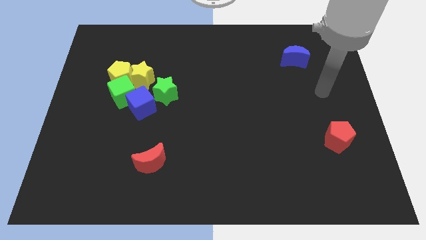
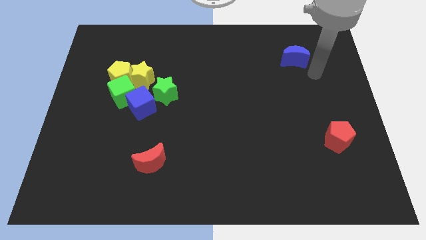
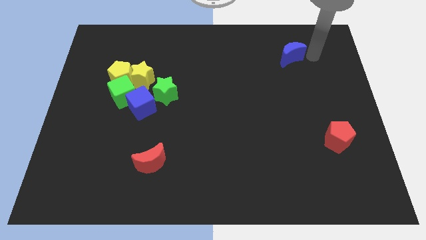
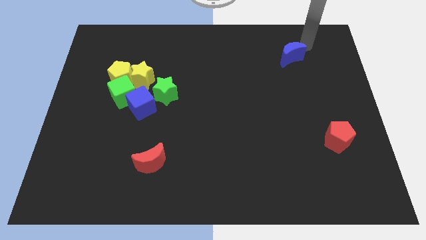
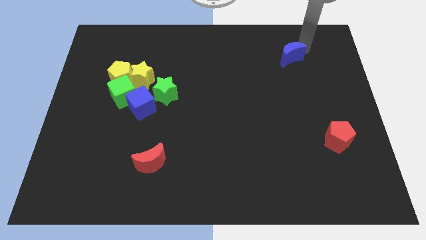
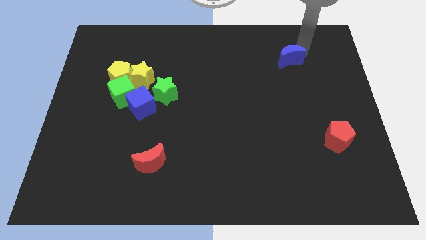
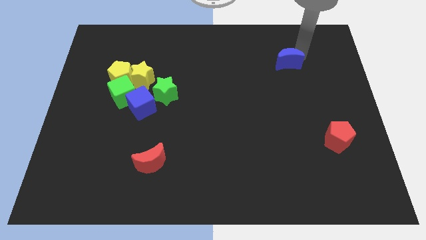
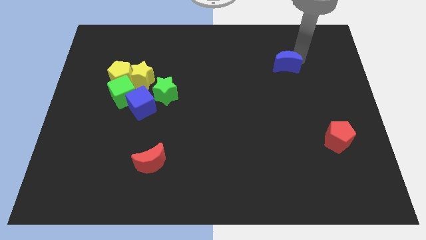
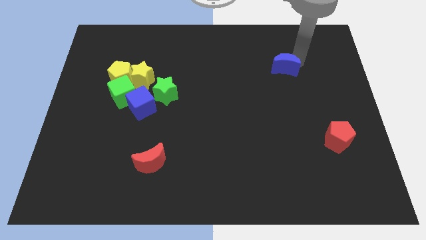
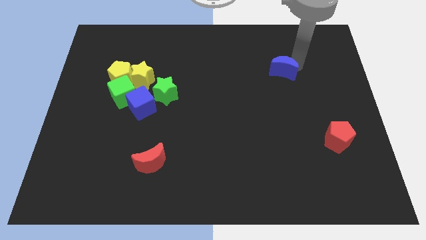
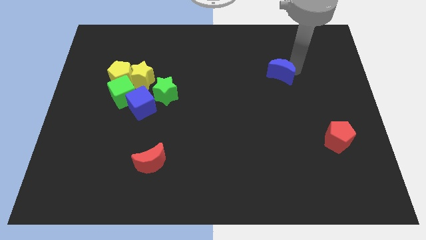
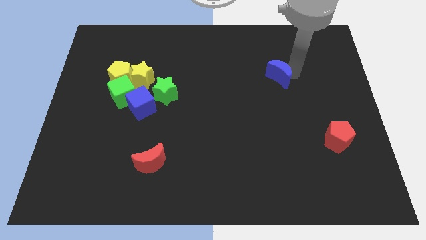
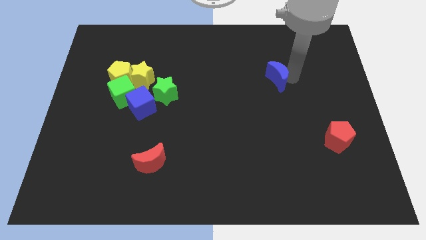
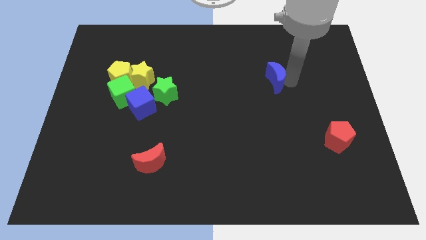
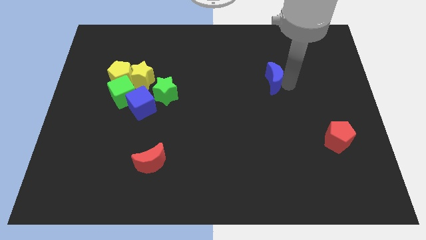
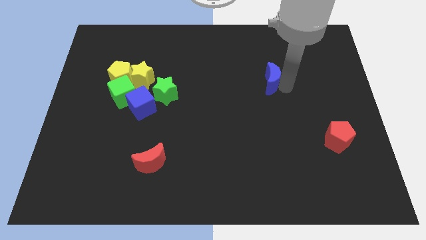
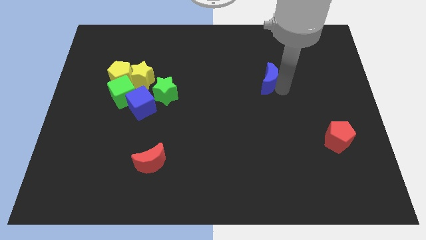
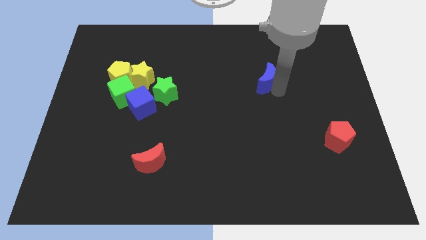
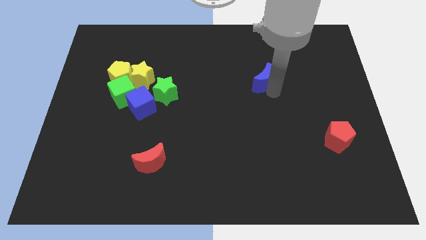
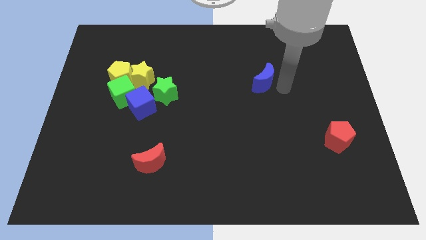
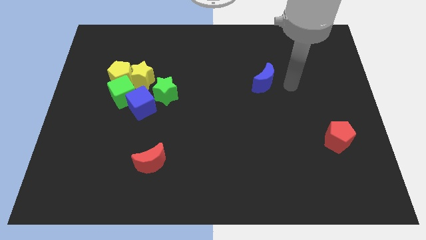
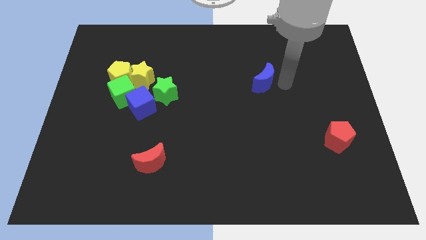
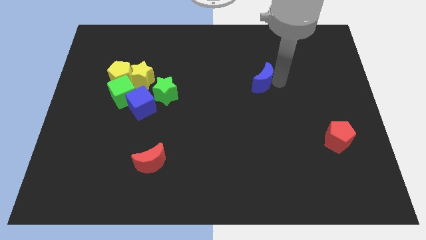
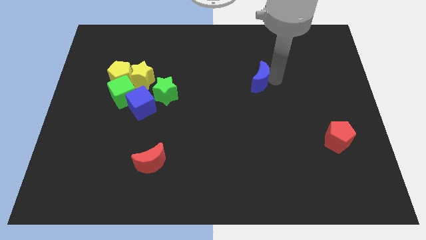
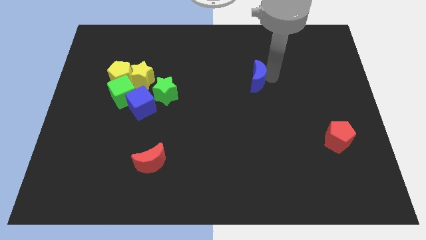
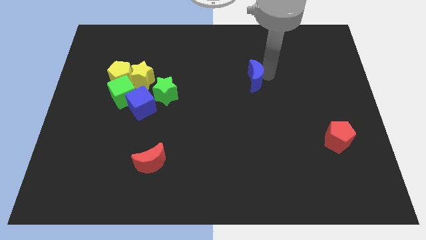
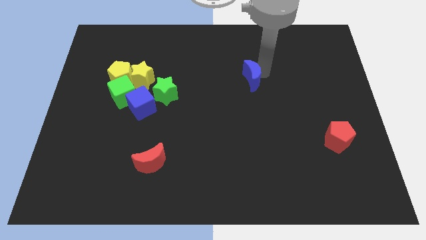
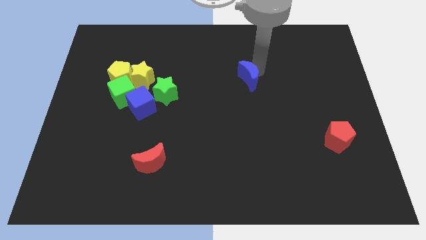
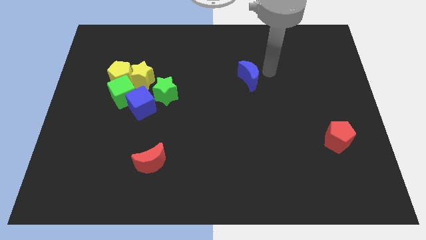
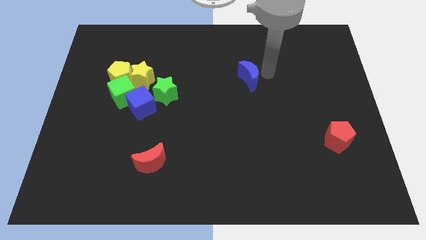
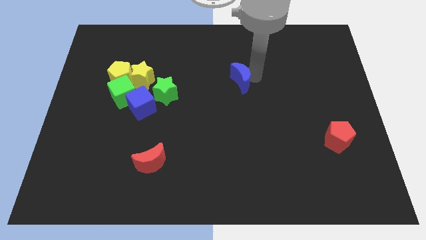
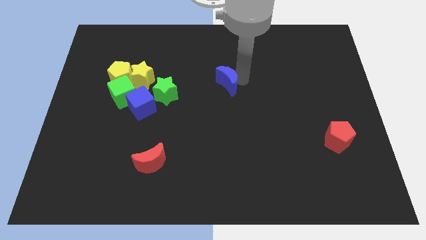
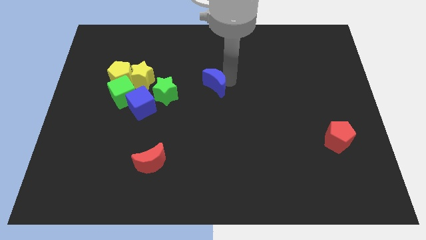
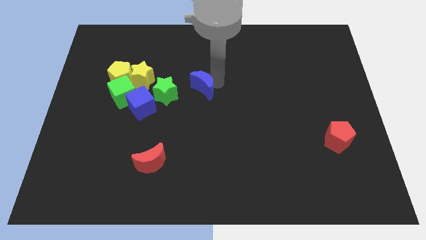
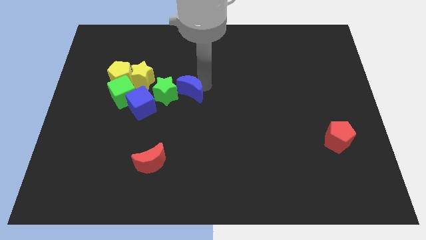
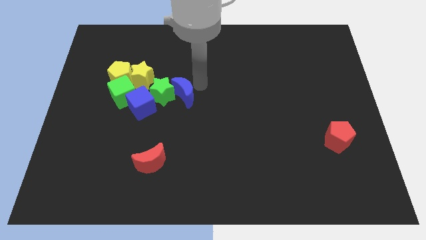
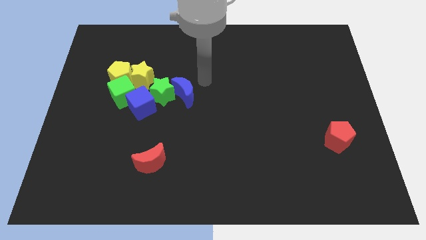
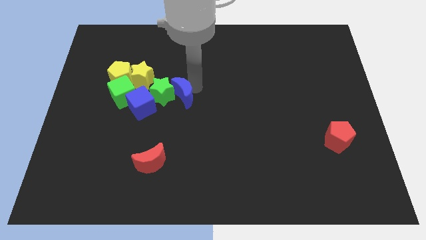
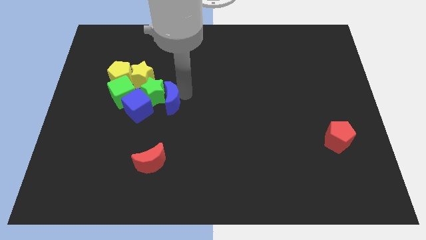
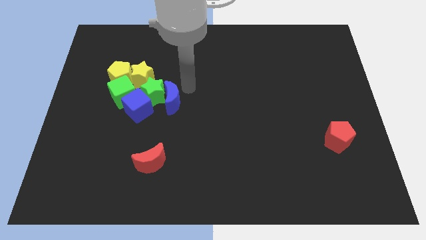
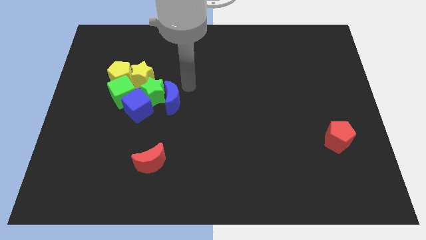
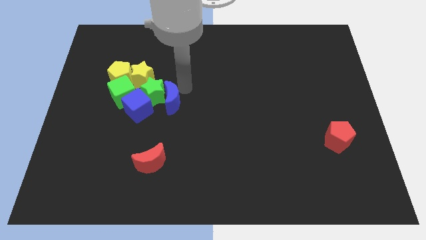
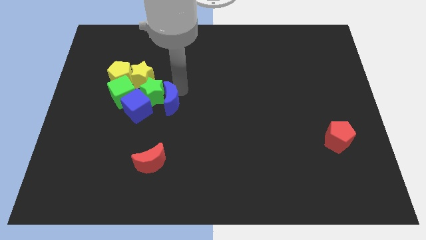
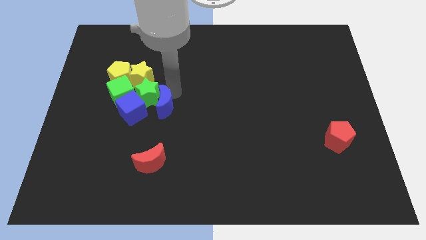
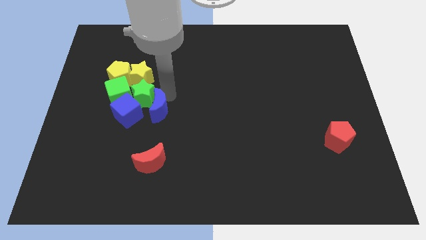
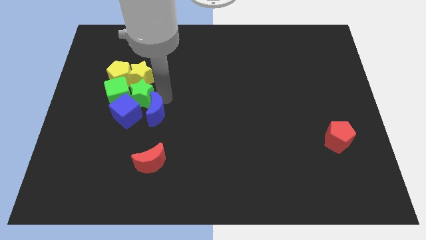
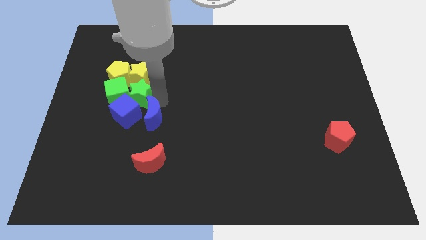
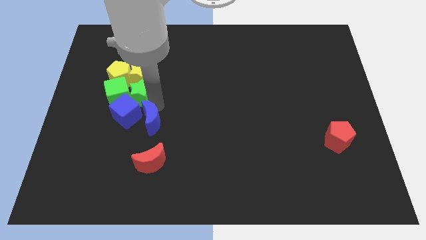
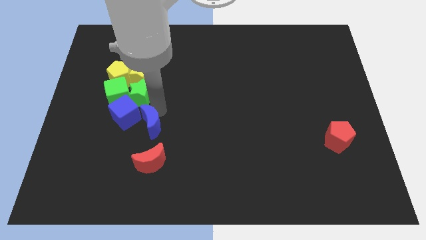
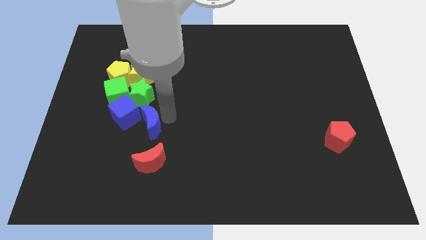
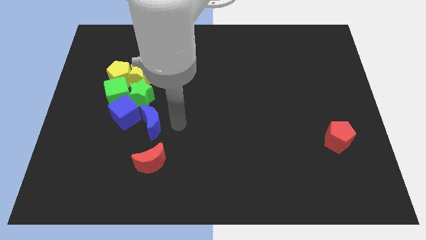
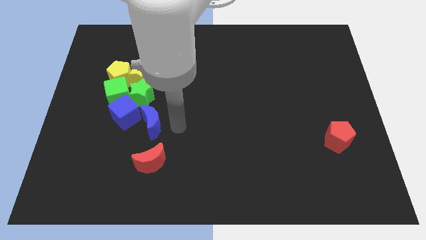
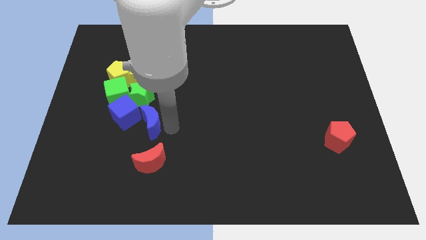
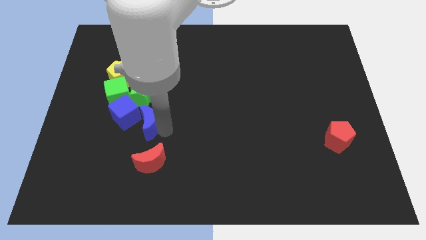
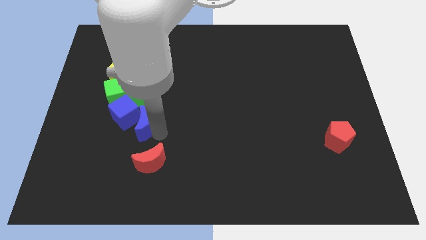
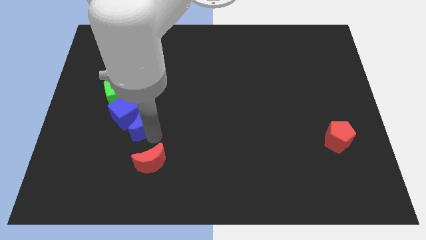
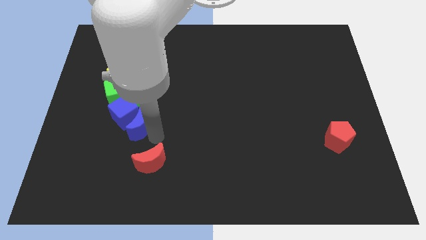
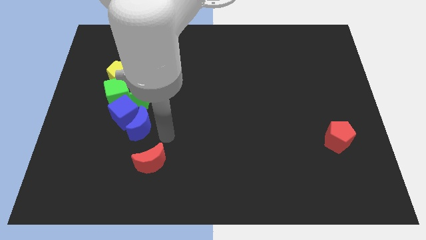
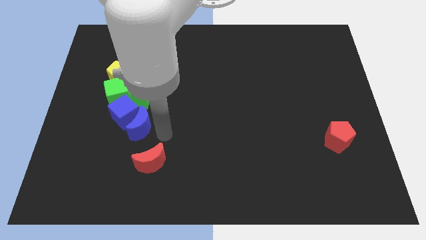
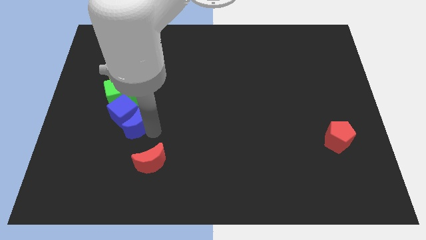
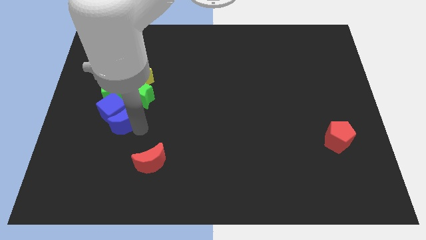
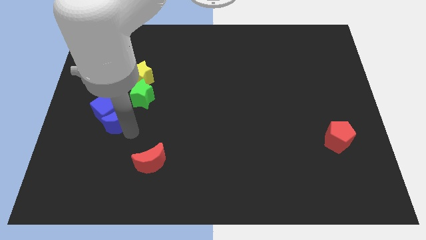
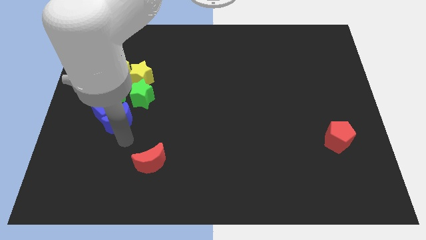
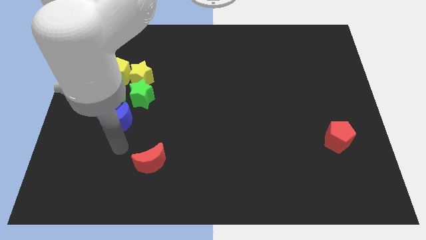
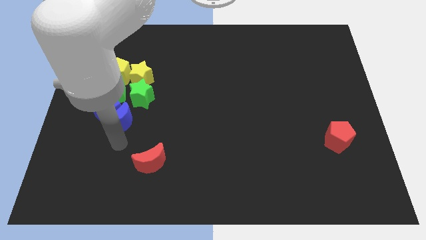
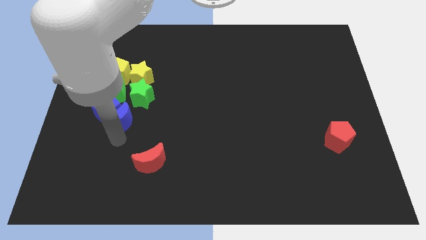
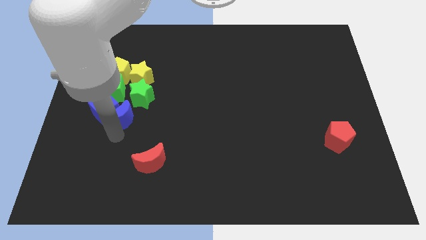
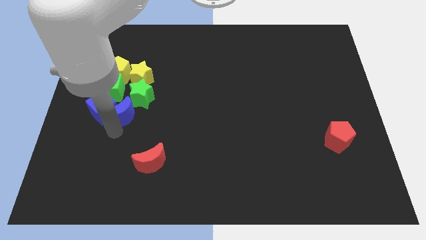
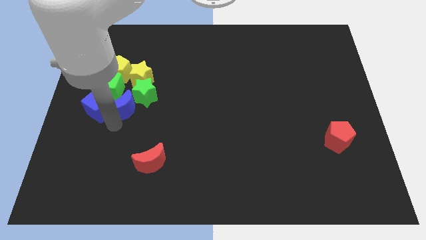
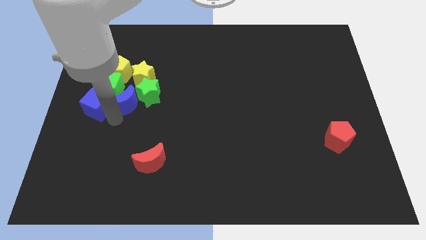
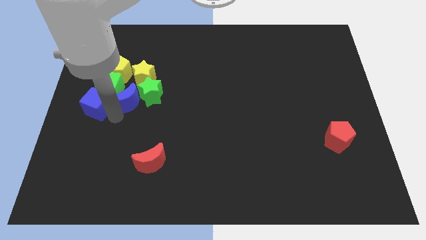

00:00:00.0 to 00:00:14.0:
move the blue moon to the green cube

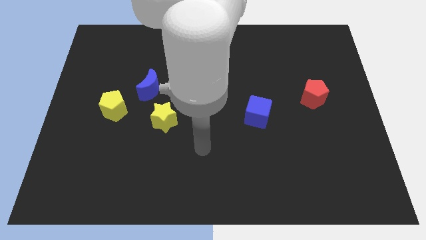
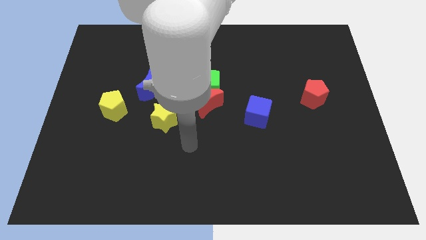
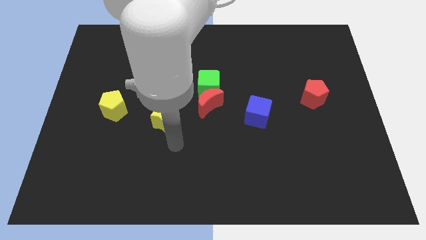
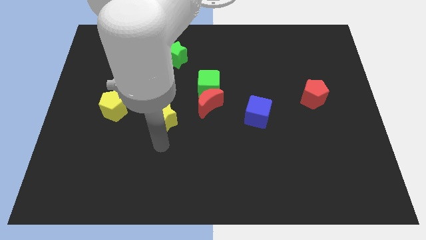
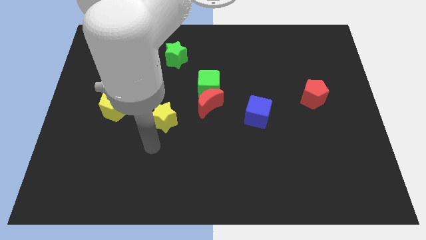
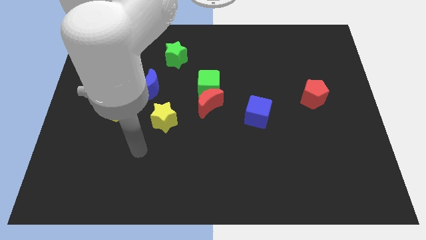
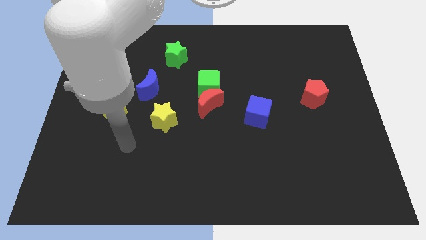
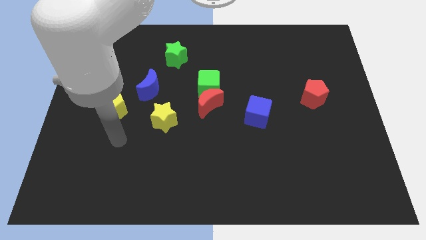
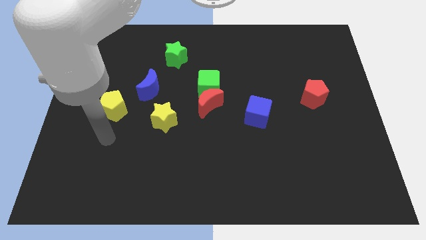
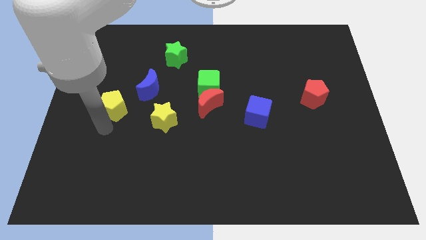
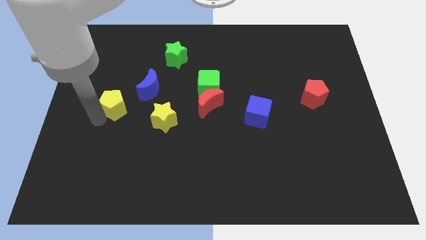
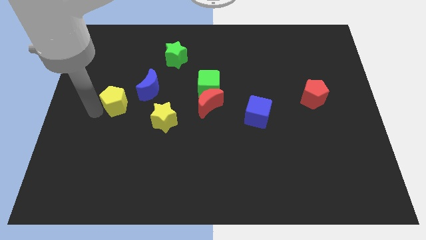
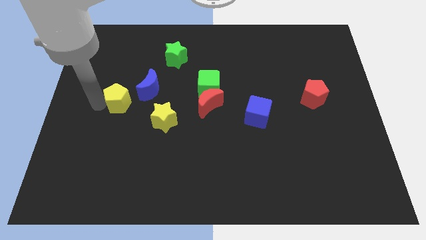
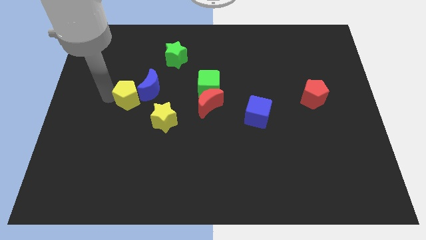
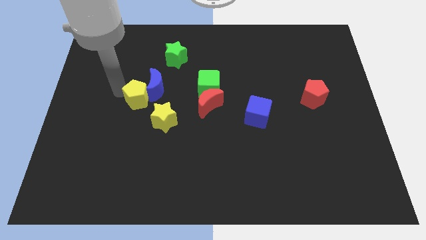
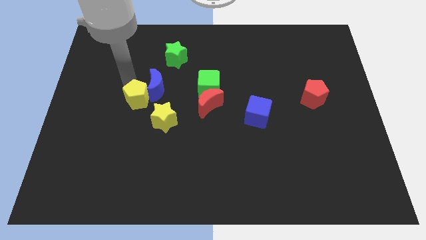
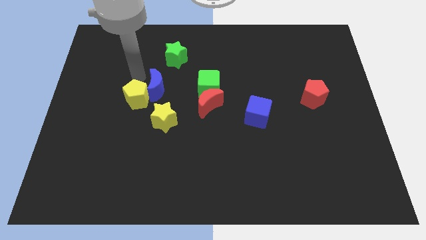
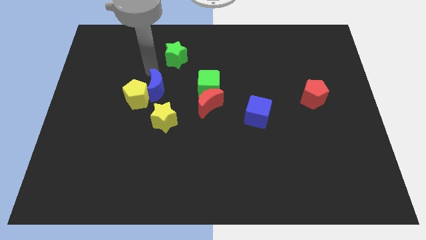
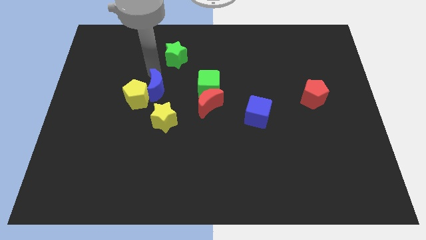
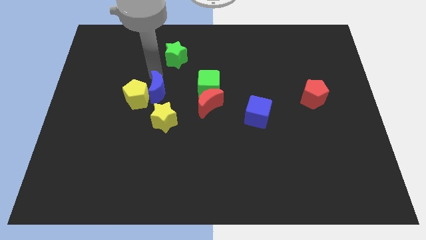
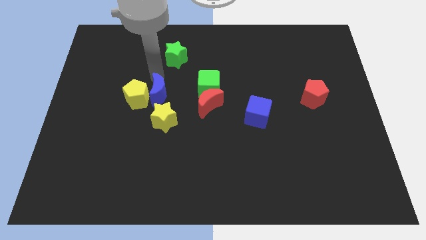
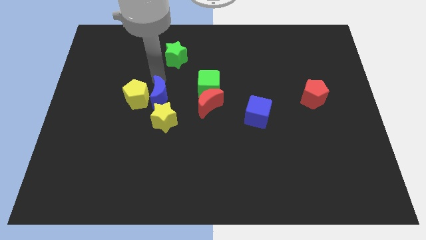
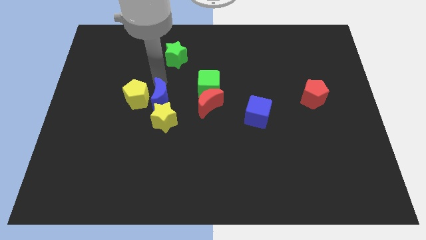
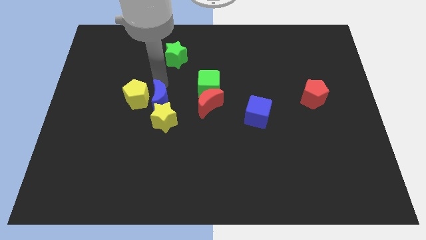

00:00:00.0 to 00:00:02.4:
put the blue moon to the yellow star
